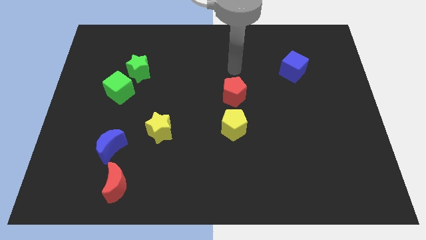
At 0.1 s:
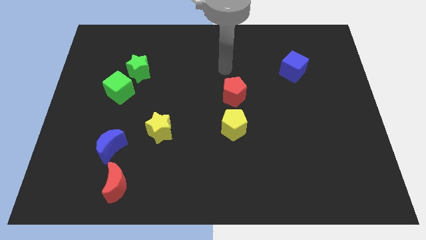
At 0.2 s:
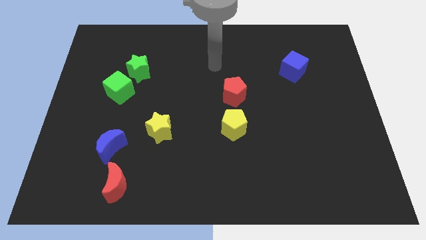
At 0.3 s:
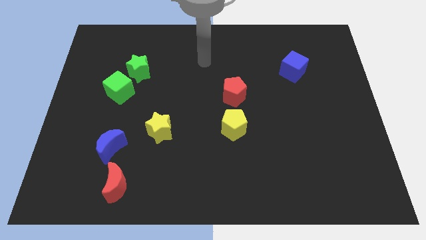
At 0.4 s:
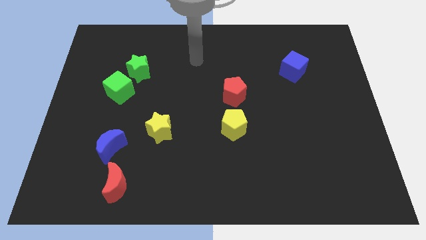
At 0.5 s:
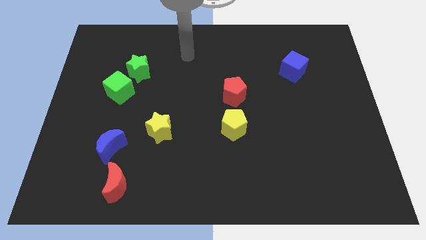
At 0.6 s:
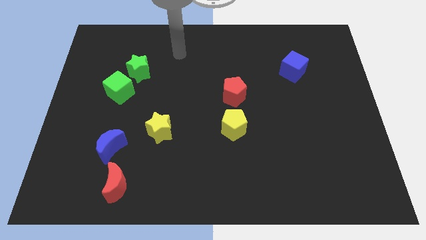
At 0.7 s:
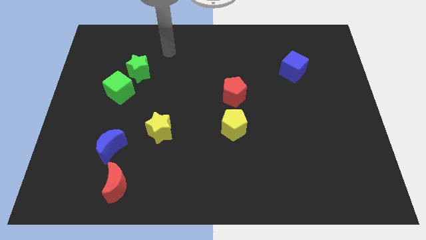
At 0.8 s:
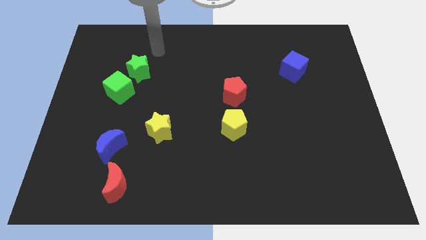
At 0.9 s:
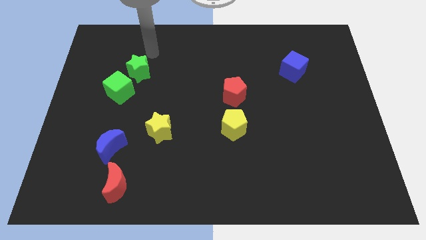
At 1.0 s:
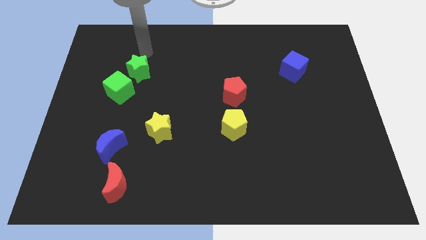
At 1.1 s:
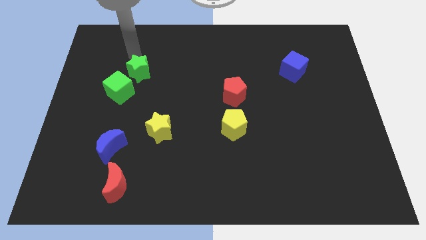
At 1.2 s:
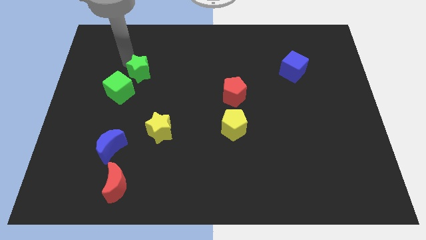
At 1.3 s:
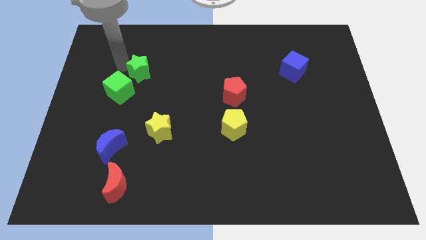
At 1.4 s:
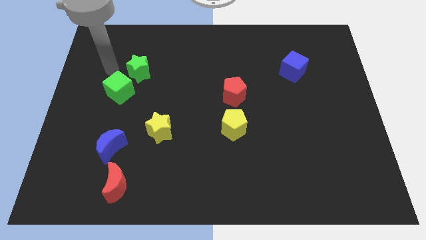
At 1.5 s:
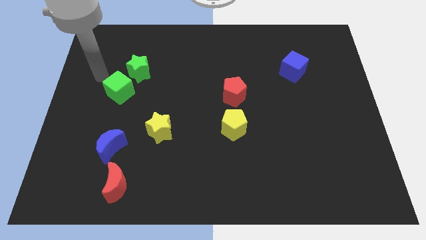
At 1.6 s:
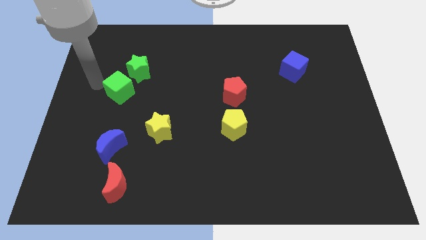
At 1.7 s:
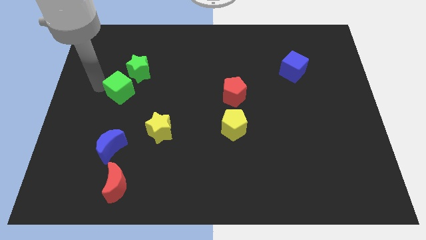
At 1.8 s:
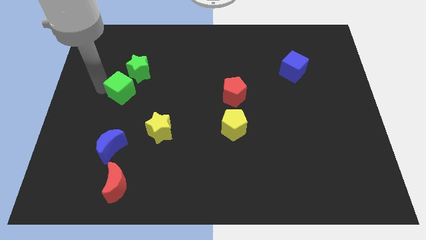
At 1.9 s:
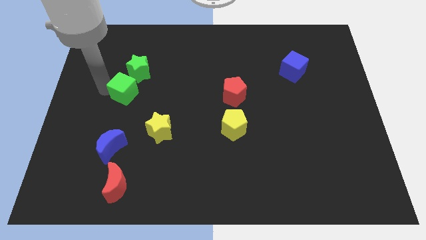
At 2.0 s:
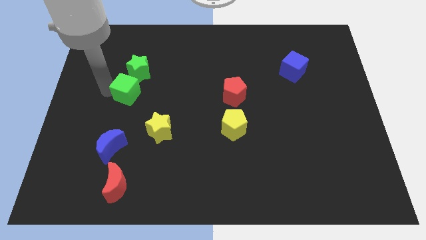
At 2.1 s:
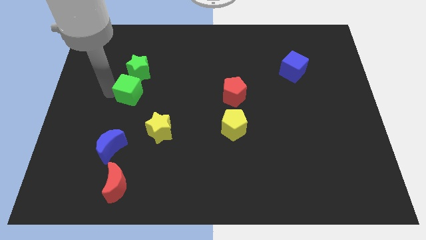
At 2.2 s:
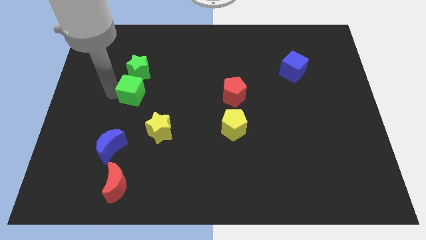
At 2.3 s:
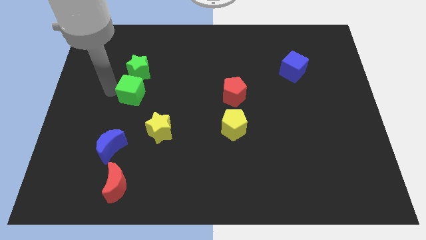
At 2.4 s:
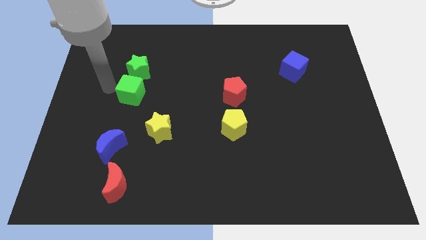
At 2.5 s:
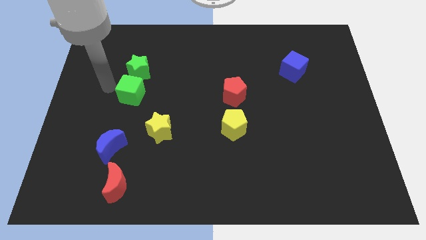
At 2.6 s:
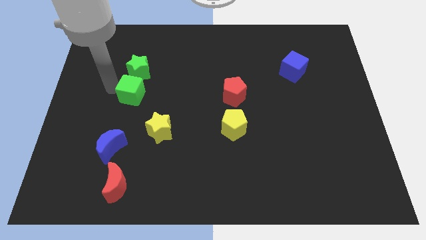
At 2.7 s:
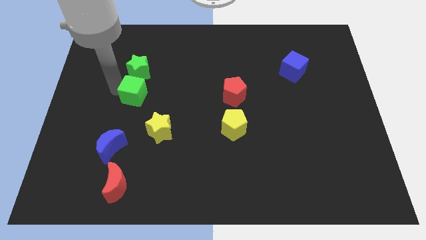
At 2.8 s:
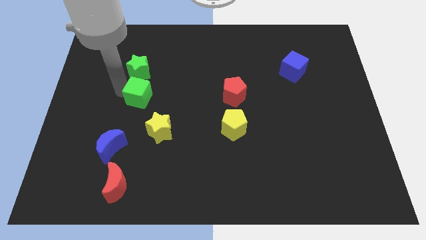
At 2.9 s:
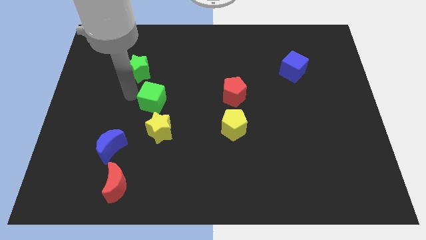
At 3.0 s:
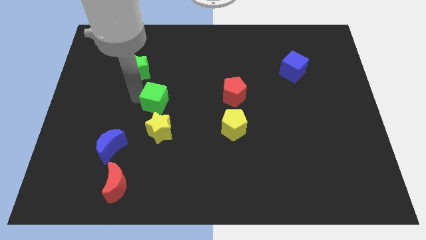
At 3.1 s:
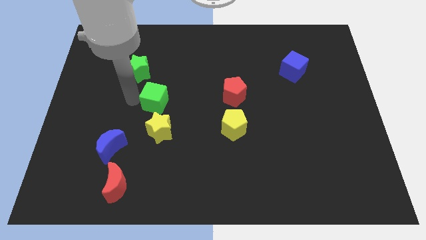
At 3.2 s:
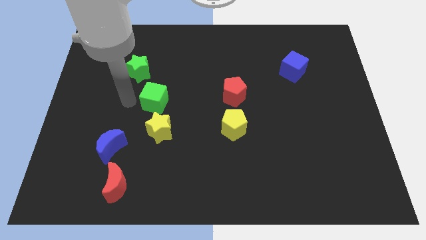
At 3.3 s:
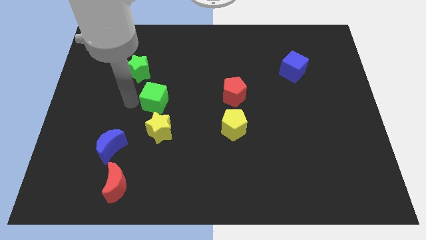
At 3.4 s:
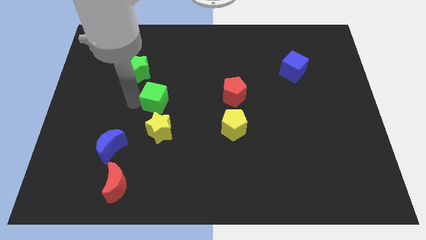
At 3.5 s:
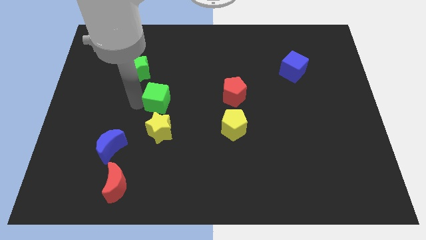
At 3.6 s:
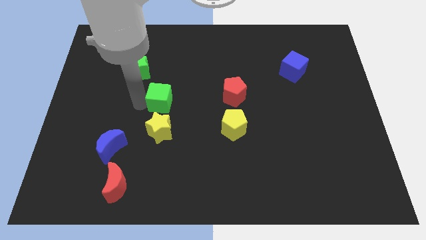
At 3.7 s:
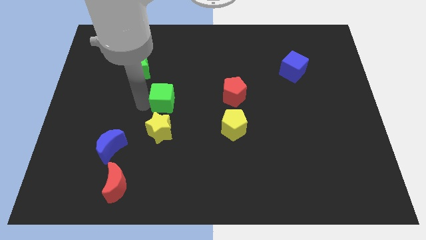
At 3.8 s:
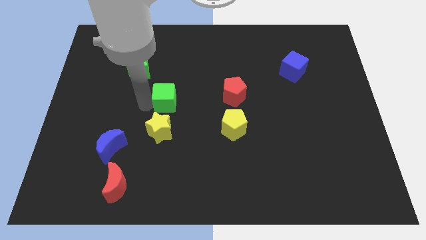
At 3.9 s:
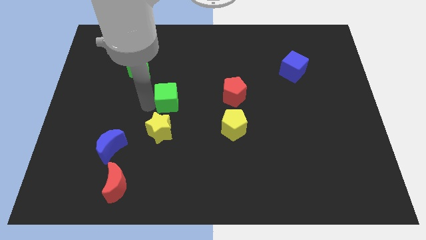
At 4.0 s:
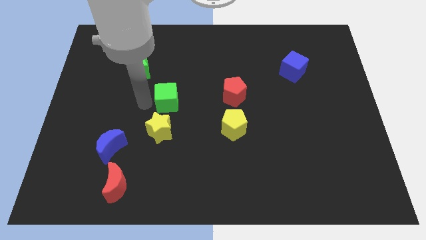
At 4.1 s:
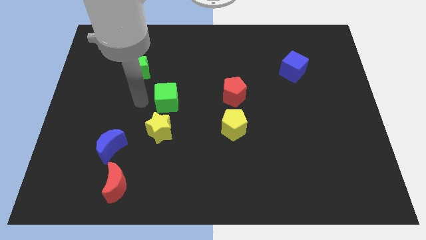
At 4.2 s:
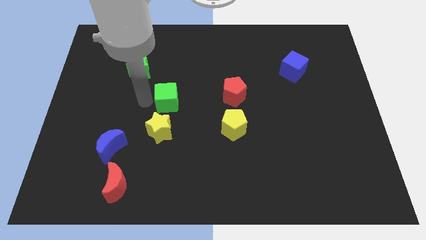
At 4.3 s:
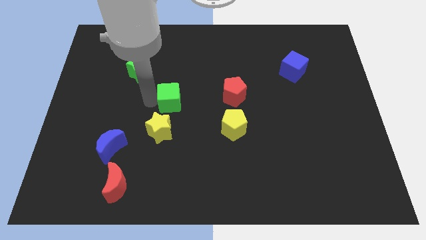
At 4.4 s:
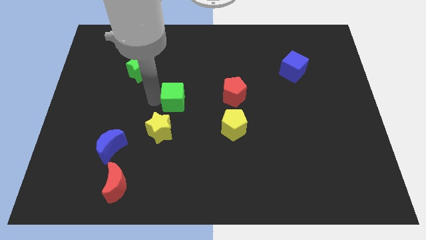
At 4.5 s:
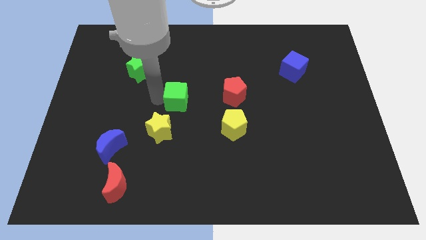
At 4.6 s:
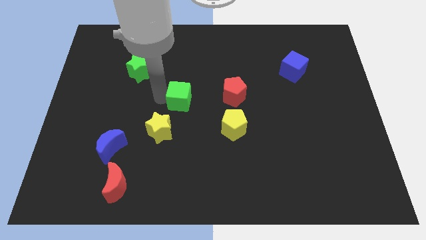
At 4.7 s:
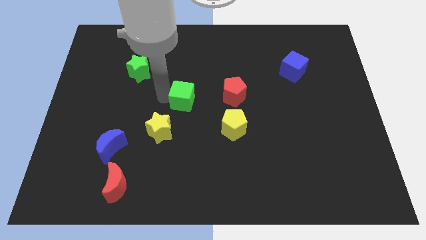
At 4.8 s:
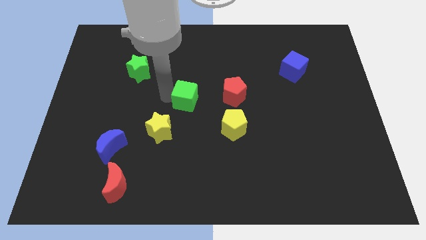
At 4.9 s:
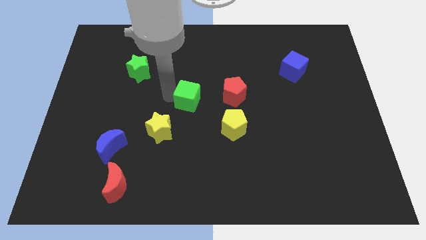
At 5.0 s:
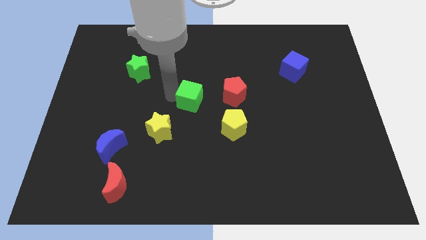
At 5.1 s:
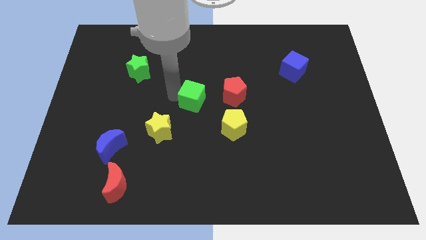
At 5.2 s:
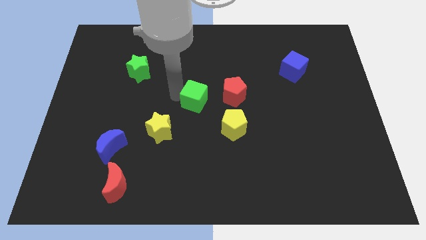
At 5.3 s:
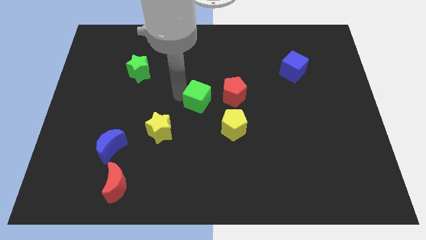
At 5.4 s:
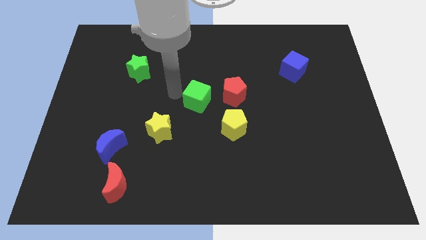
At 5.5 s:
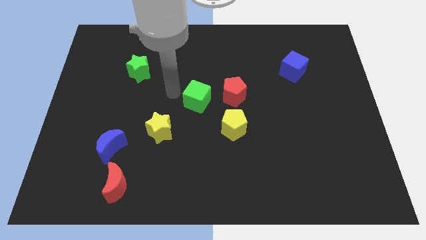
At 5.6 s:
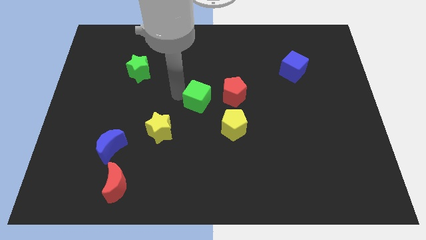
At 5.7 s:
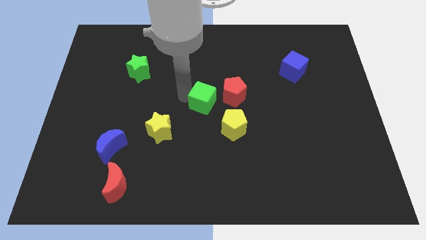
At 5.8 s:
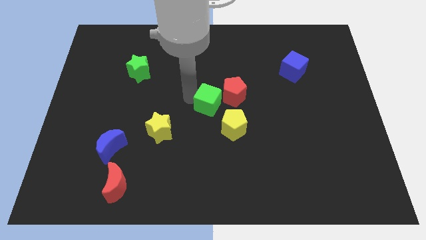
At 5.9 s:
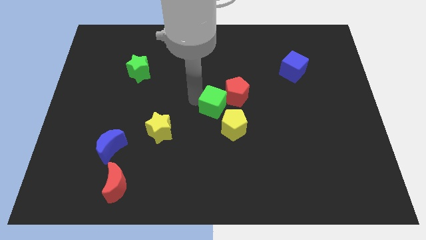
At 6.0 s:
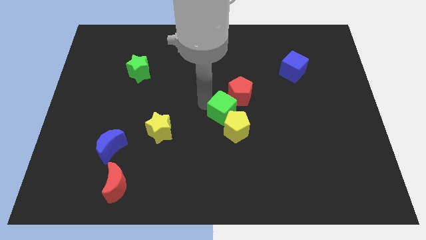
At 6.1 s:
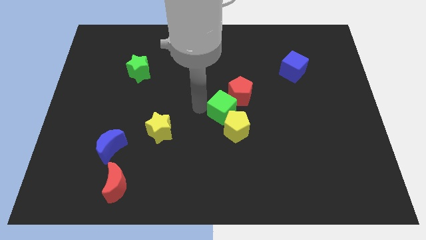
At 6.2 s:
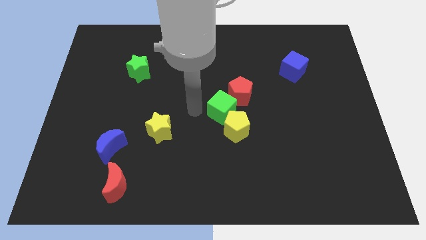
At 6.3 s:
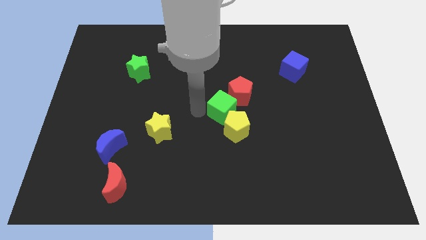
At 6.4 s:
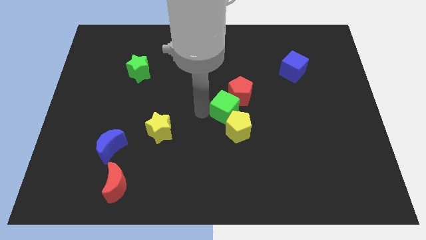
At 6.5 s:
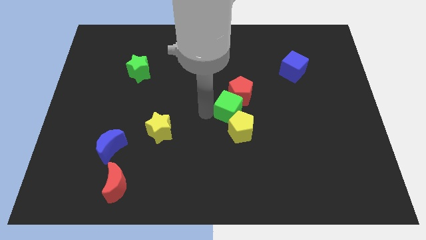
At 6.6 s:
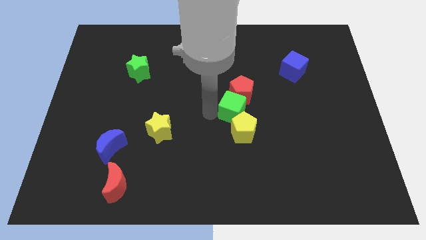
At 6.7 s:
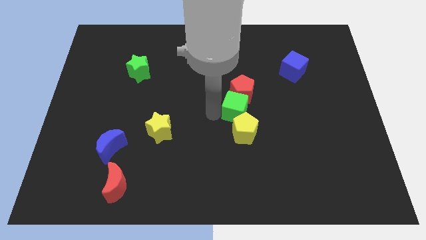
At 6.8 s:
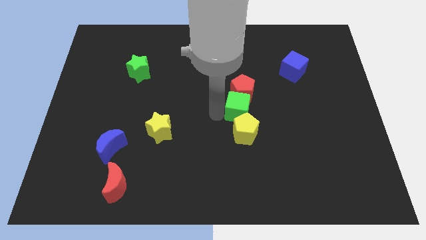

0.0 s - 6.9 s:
slide the green cube to the bottom right side of the red pentagon
